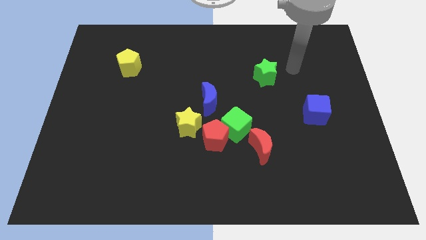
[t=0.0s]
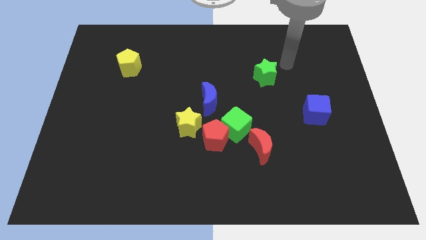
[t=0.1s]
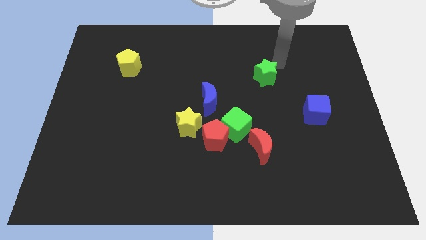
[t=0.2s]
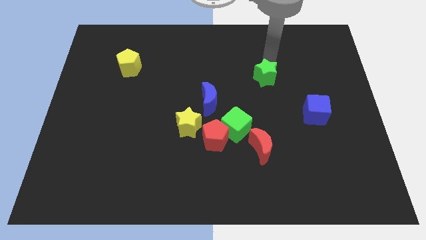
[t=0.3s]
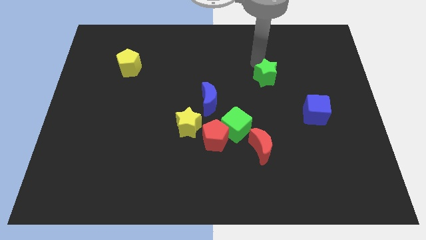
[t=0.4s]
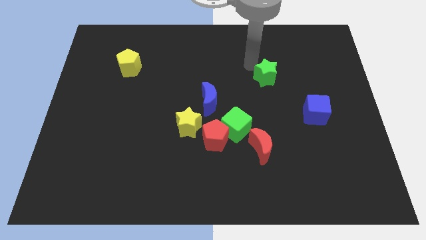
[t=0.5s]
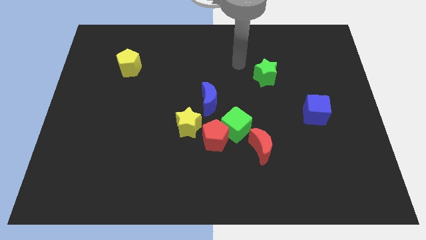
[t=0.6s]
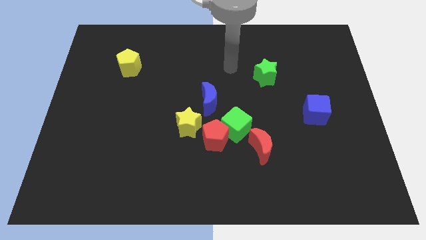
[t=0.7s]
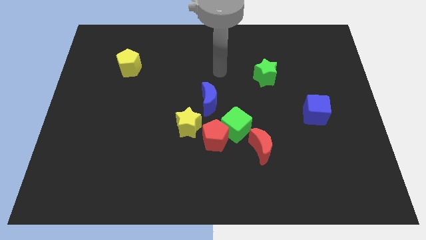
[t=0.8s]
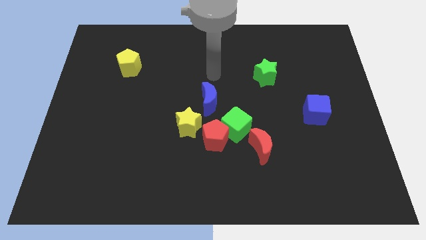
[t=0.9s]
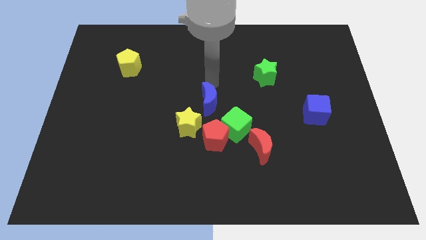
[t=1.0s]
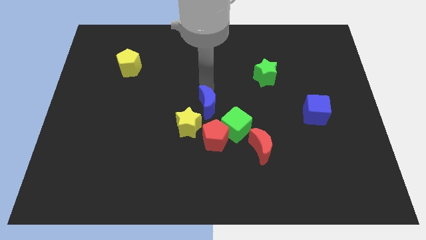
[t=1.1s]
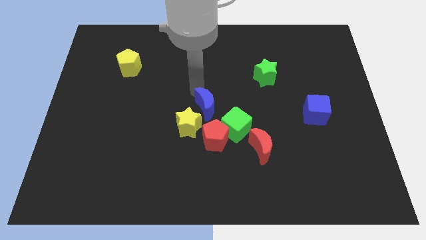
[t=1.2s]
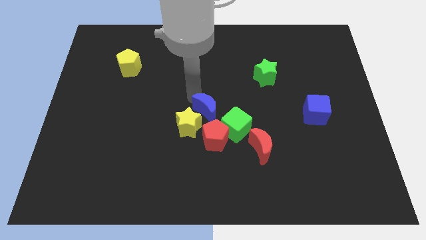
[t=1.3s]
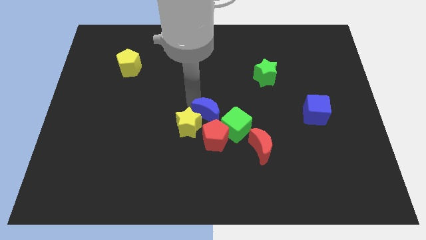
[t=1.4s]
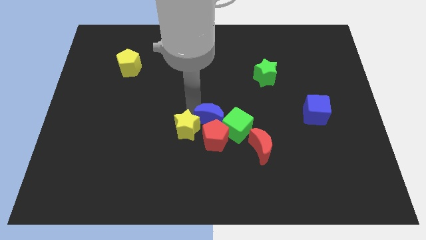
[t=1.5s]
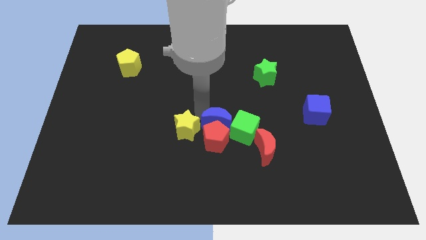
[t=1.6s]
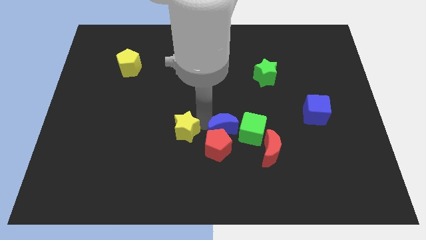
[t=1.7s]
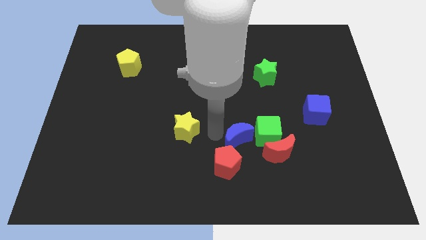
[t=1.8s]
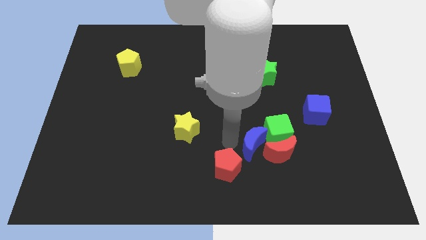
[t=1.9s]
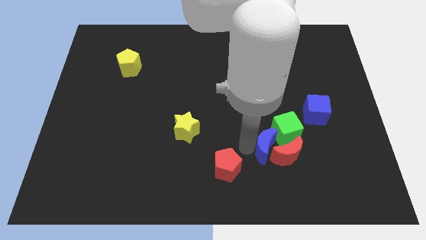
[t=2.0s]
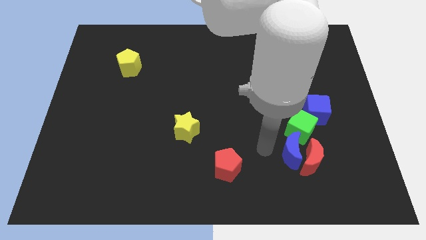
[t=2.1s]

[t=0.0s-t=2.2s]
separate the green cube from the red pentagon, red moon, and blue moon

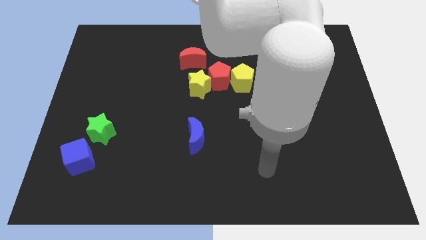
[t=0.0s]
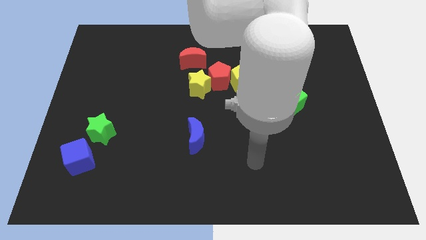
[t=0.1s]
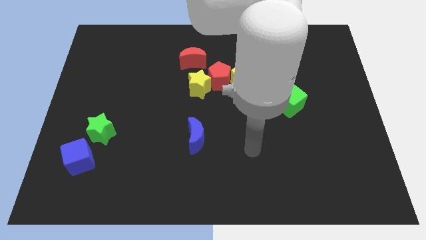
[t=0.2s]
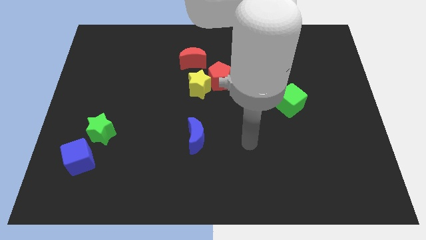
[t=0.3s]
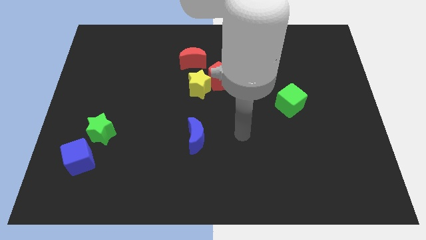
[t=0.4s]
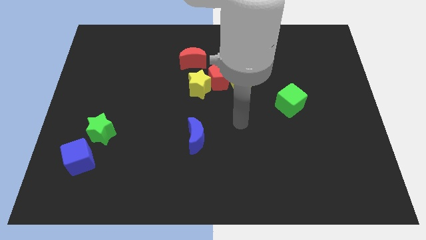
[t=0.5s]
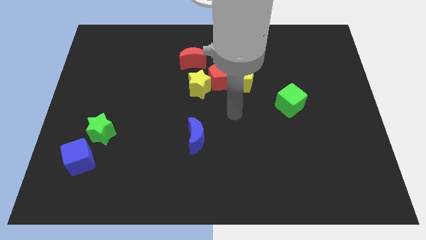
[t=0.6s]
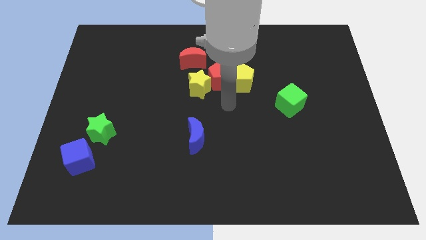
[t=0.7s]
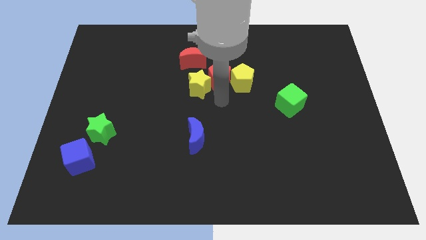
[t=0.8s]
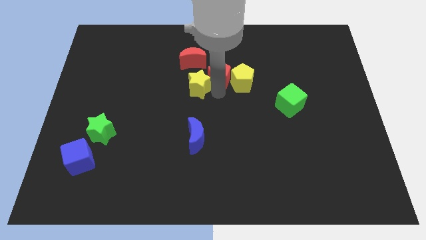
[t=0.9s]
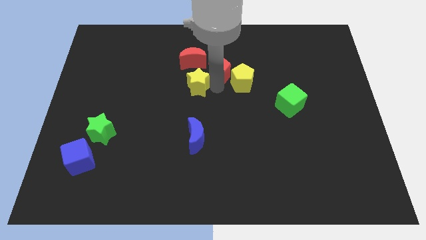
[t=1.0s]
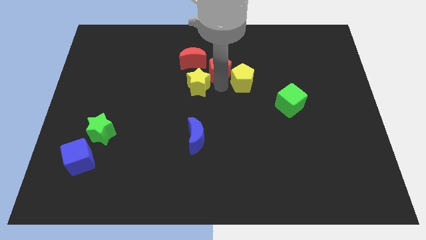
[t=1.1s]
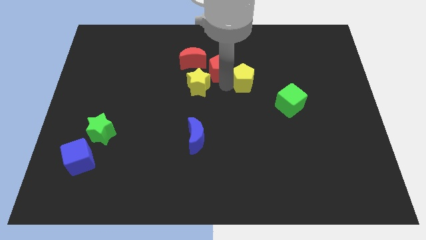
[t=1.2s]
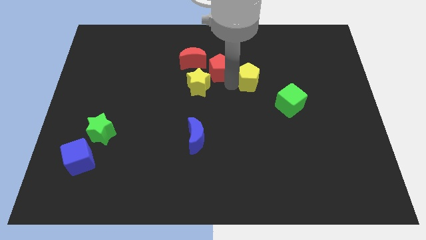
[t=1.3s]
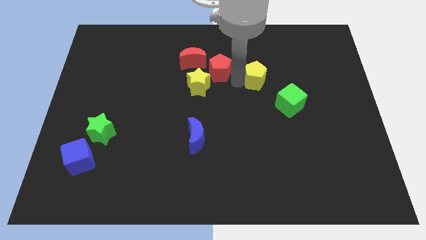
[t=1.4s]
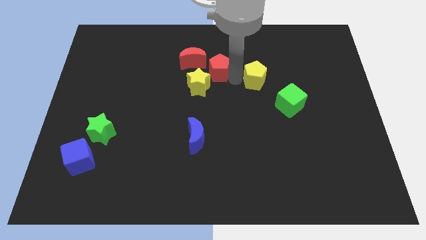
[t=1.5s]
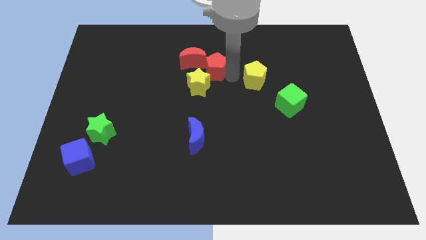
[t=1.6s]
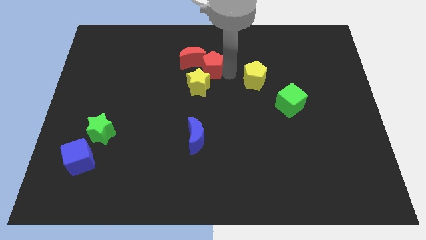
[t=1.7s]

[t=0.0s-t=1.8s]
separate the yellow pentagon from the red pentagon

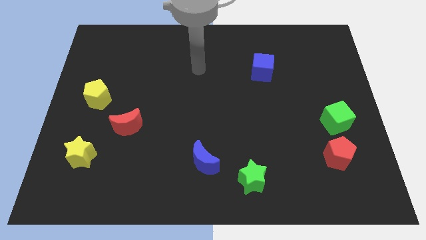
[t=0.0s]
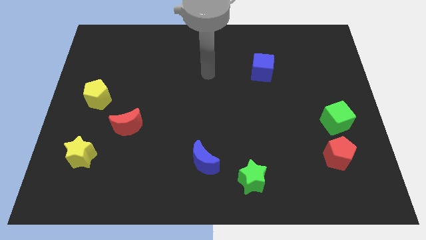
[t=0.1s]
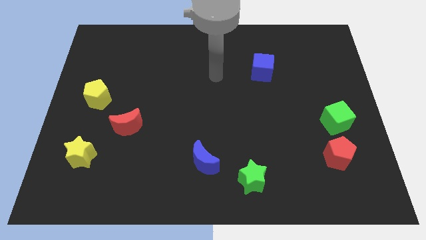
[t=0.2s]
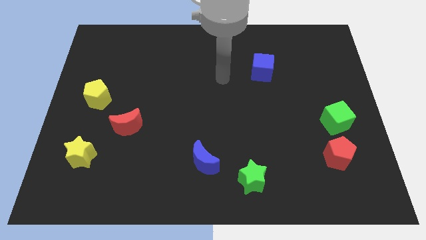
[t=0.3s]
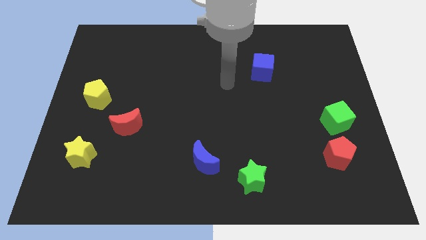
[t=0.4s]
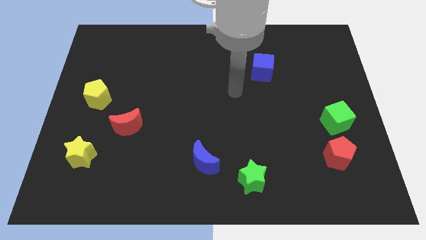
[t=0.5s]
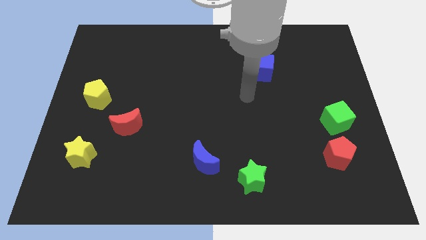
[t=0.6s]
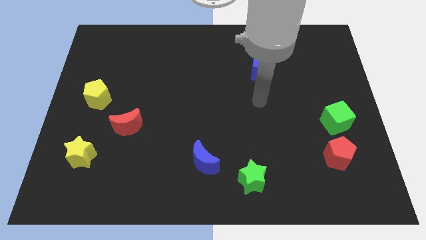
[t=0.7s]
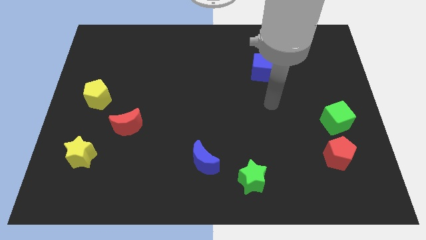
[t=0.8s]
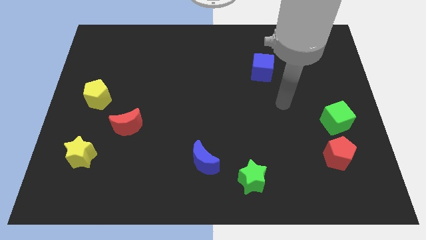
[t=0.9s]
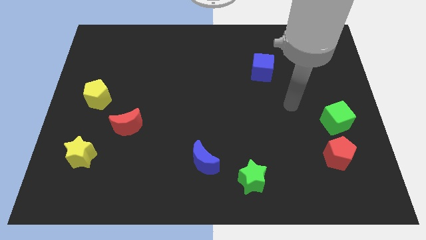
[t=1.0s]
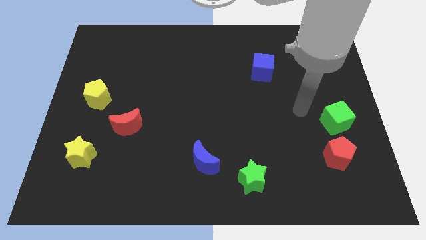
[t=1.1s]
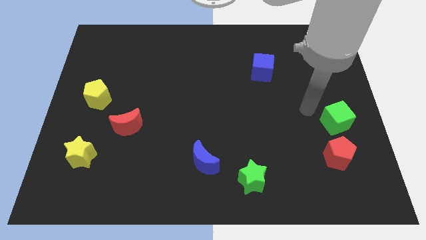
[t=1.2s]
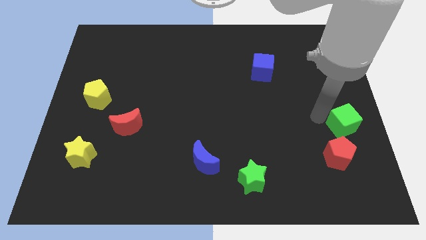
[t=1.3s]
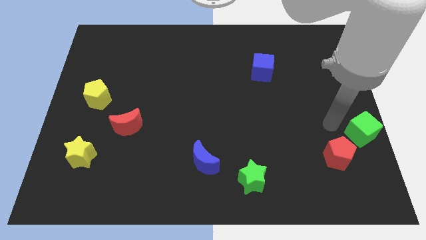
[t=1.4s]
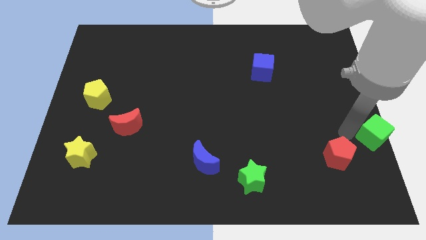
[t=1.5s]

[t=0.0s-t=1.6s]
pull the red pentagon apart from the green cube

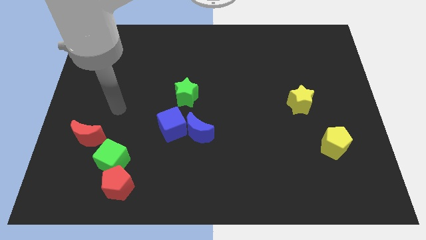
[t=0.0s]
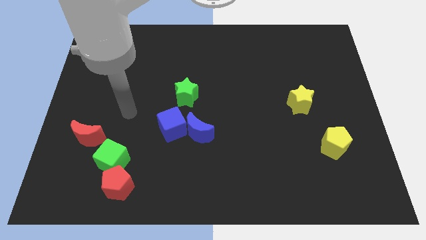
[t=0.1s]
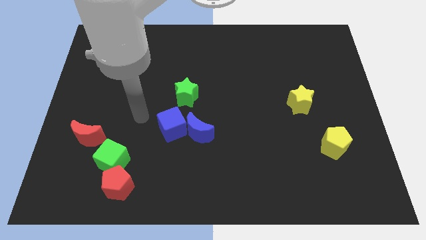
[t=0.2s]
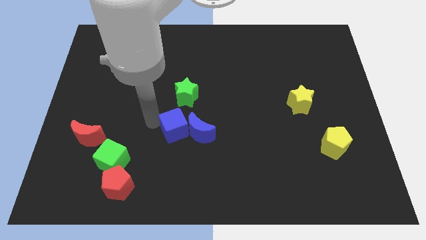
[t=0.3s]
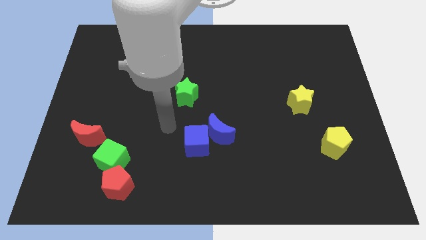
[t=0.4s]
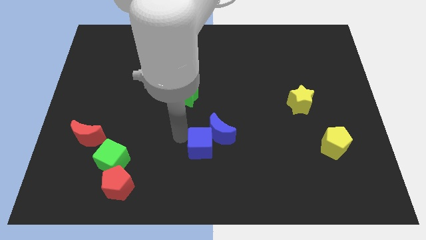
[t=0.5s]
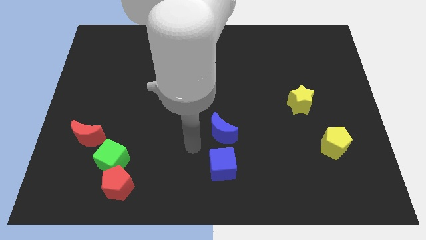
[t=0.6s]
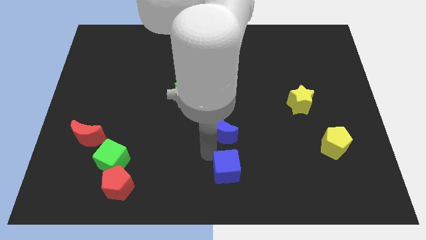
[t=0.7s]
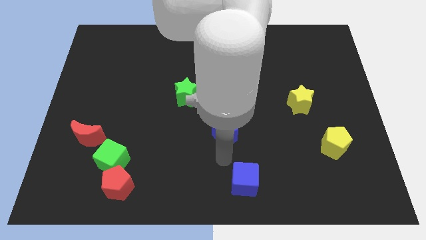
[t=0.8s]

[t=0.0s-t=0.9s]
move the blue moon away from the blue cube

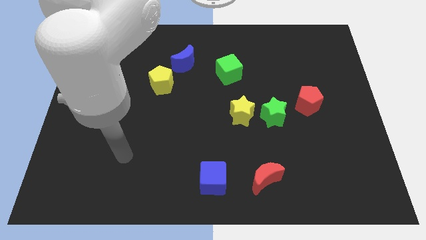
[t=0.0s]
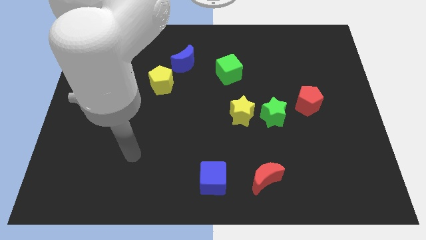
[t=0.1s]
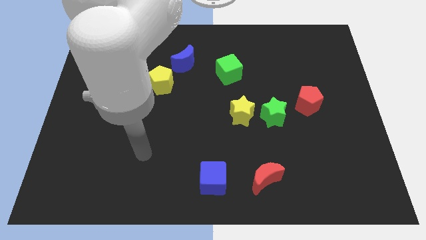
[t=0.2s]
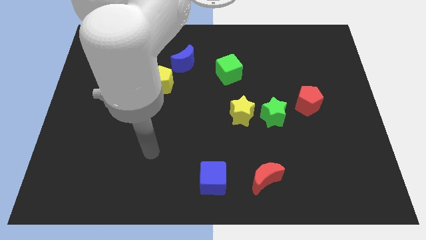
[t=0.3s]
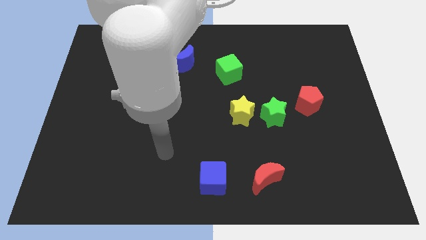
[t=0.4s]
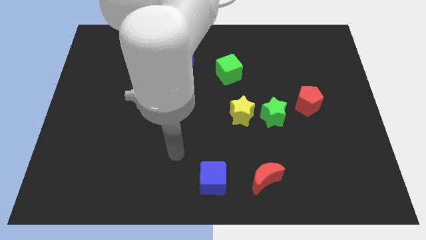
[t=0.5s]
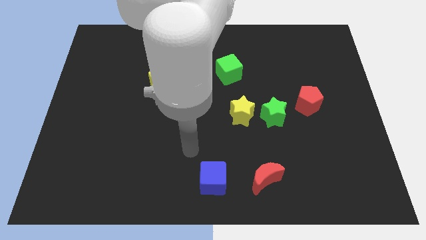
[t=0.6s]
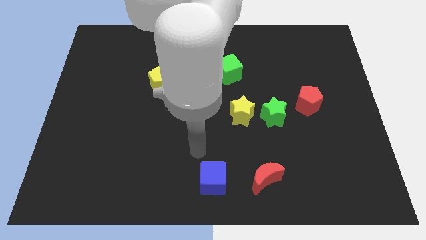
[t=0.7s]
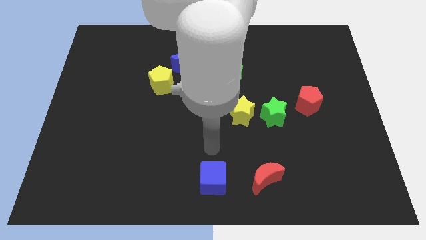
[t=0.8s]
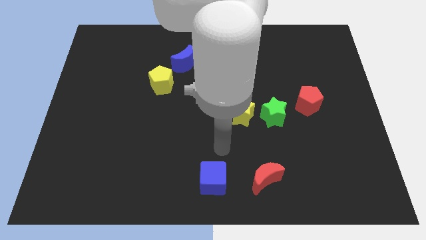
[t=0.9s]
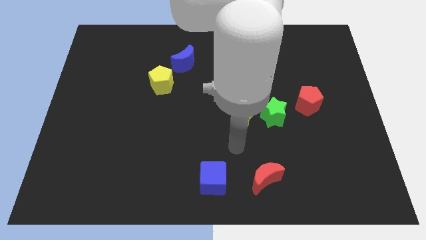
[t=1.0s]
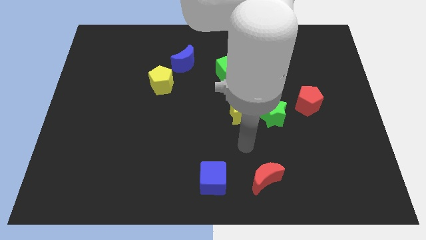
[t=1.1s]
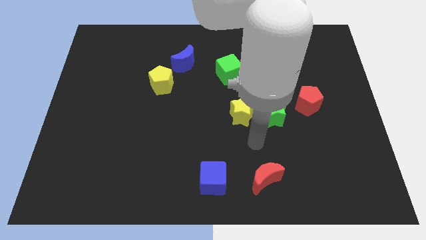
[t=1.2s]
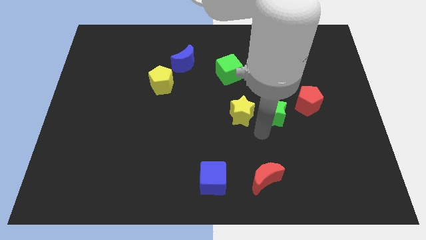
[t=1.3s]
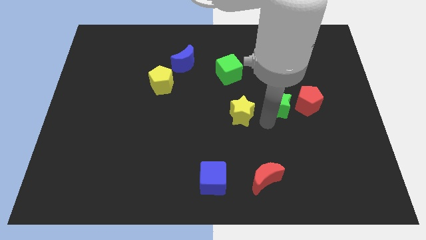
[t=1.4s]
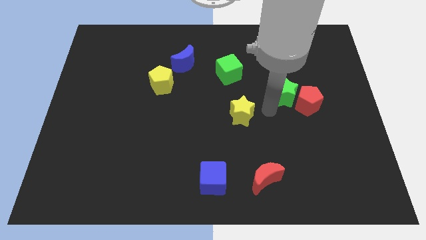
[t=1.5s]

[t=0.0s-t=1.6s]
move the yellow star away from the green star

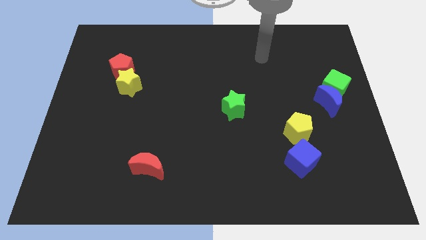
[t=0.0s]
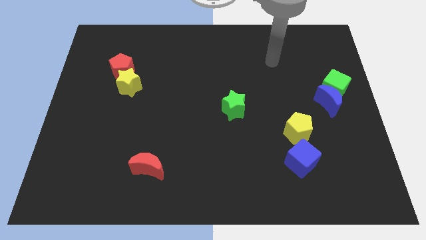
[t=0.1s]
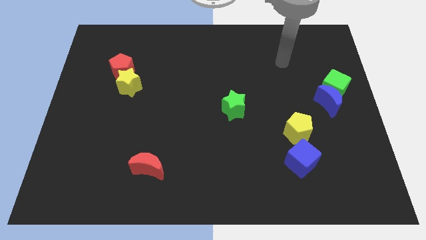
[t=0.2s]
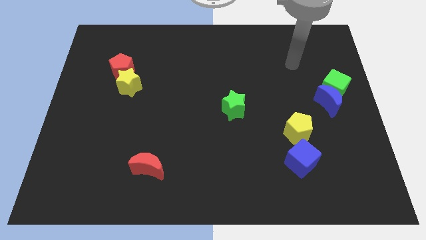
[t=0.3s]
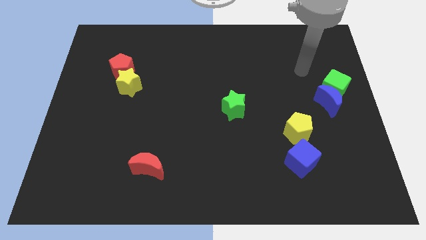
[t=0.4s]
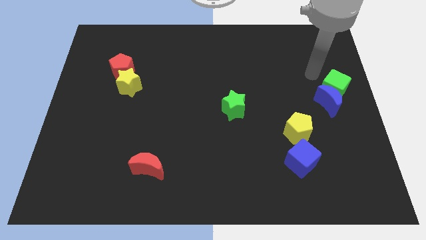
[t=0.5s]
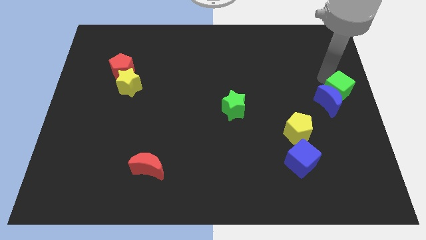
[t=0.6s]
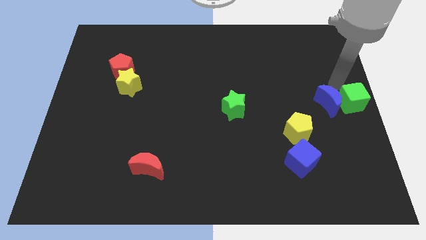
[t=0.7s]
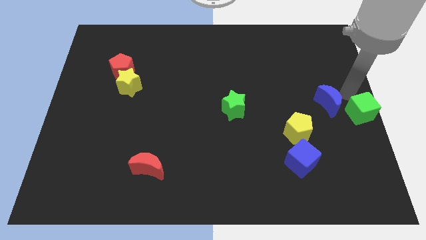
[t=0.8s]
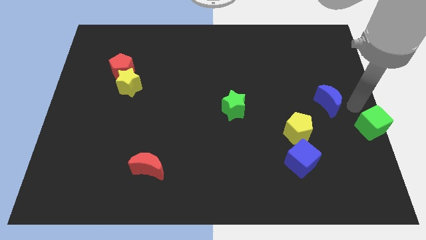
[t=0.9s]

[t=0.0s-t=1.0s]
move the blue moon away from the green cube

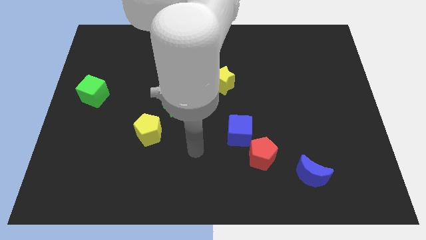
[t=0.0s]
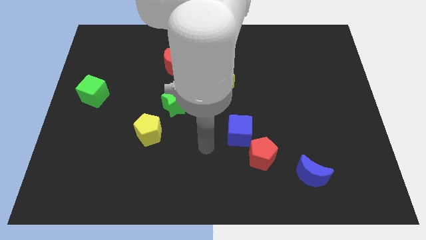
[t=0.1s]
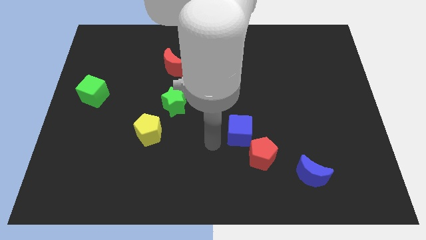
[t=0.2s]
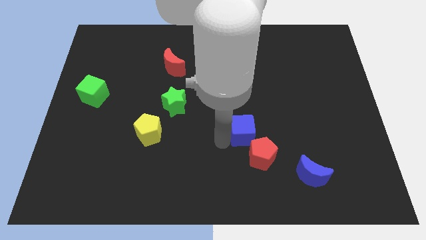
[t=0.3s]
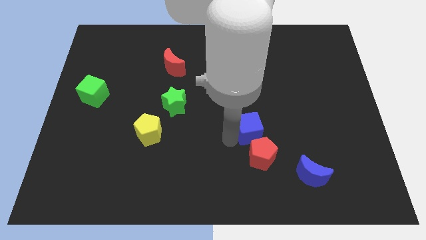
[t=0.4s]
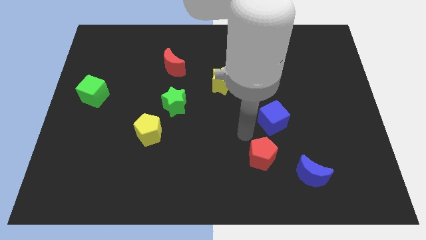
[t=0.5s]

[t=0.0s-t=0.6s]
separate the red pentagon from the blue cube
